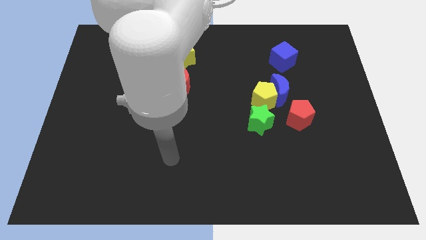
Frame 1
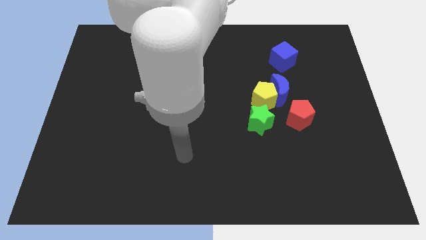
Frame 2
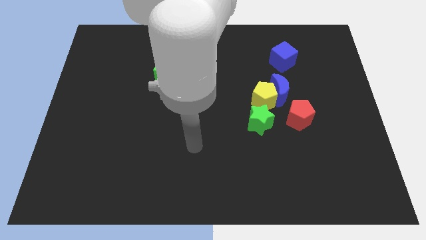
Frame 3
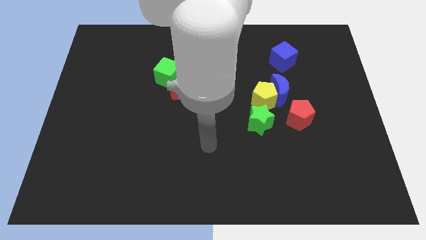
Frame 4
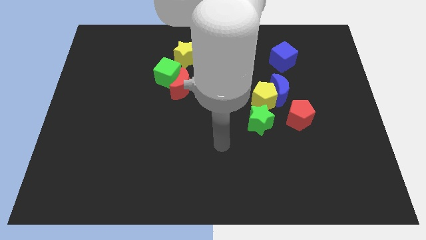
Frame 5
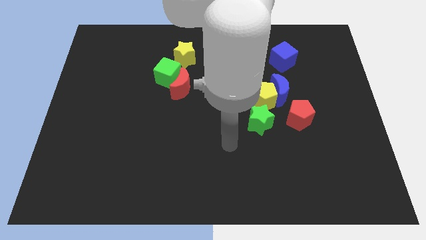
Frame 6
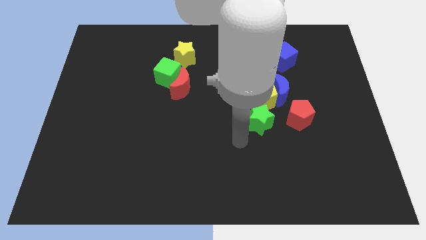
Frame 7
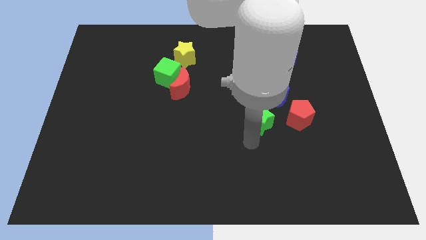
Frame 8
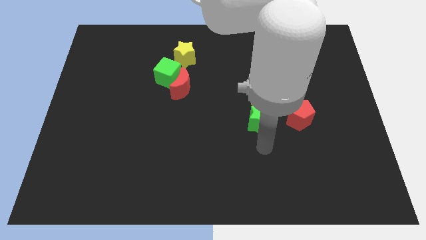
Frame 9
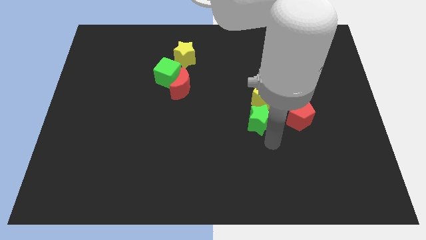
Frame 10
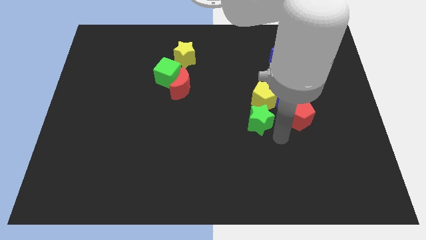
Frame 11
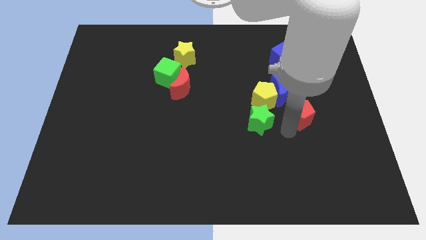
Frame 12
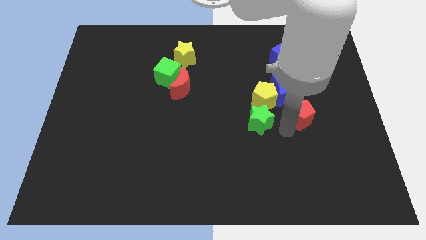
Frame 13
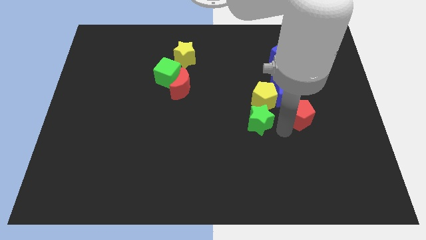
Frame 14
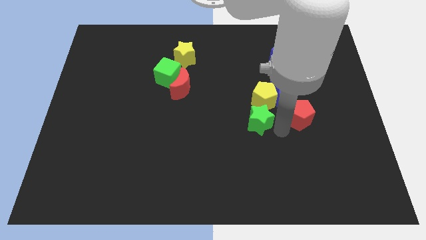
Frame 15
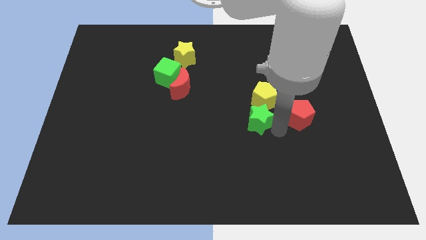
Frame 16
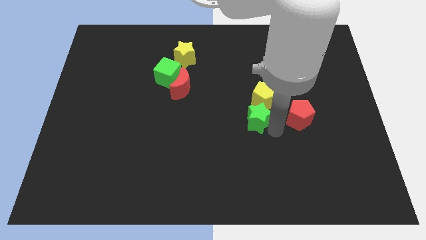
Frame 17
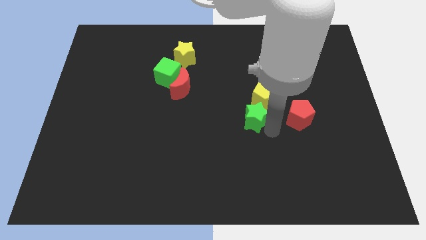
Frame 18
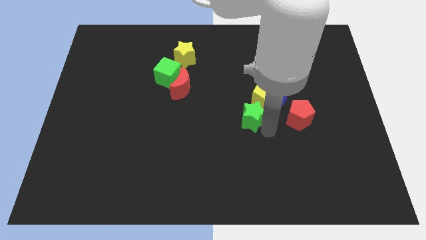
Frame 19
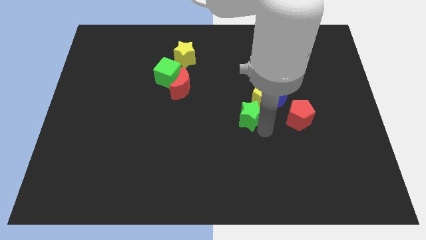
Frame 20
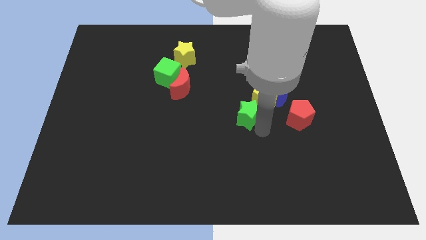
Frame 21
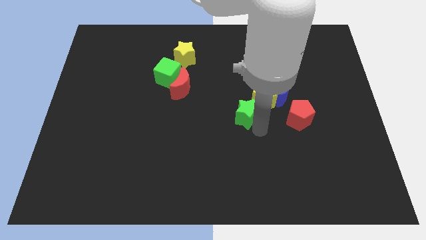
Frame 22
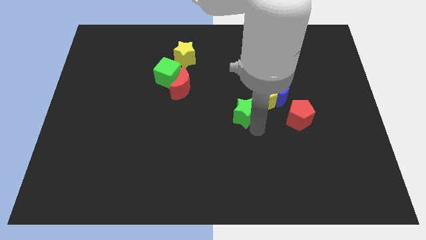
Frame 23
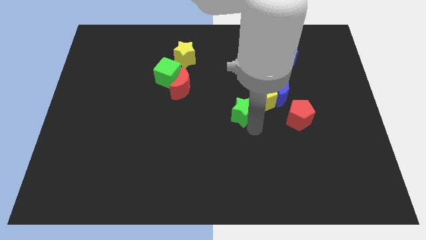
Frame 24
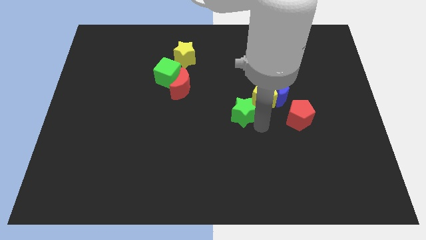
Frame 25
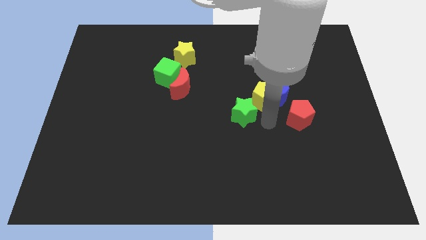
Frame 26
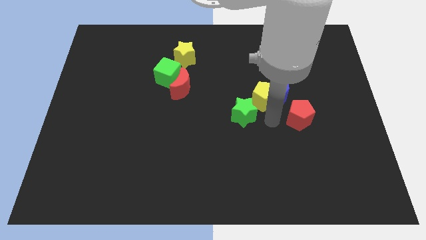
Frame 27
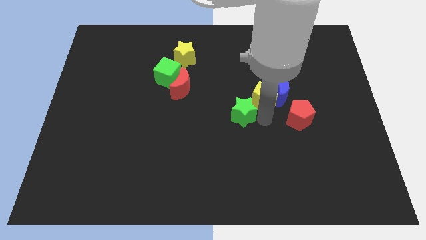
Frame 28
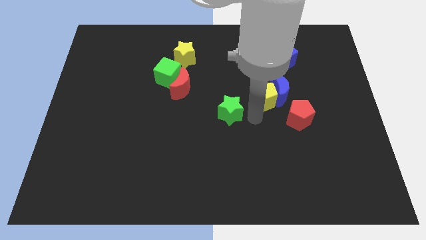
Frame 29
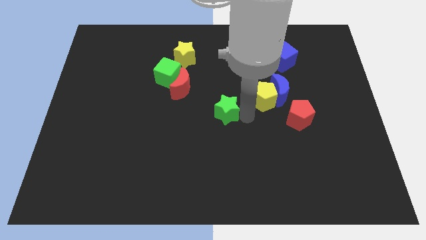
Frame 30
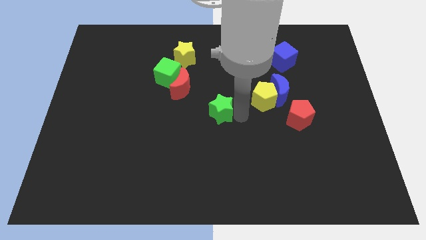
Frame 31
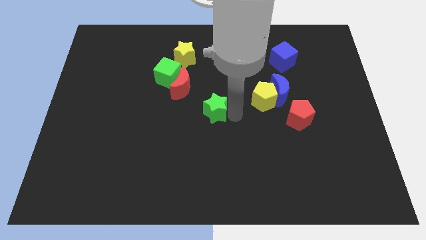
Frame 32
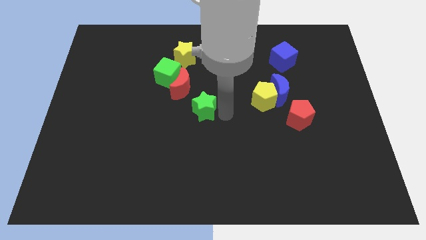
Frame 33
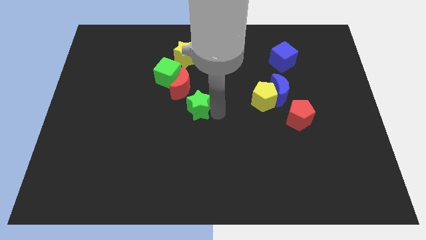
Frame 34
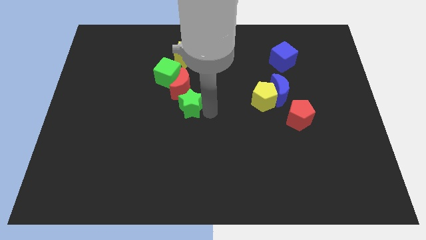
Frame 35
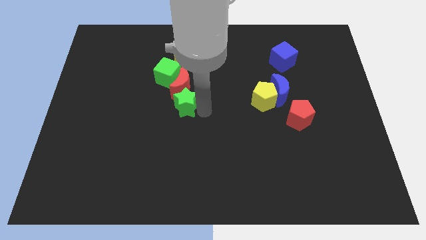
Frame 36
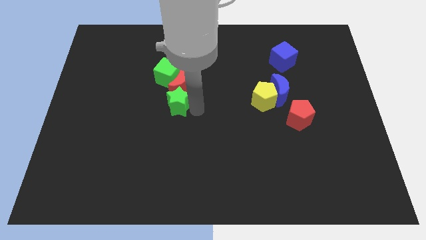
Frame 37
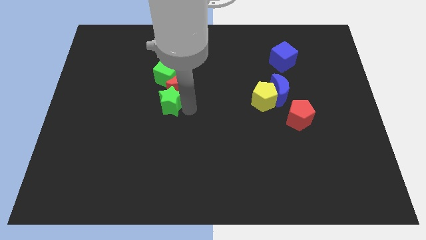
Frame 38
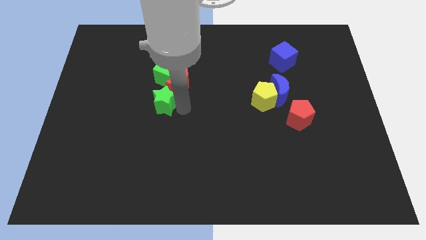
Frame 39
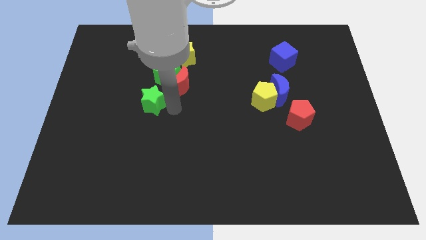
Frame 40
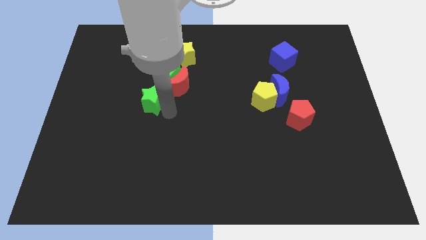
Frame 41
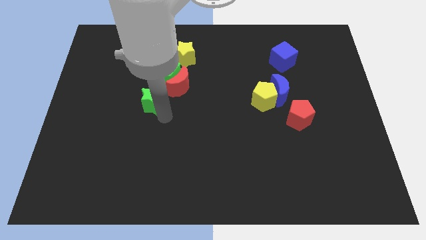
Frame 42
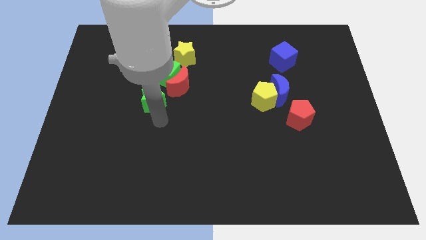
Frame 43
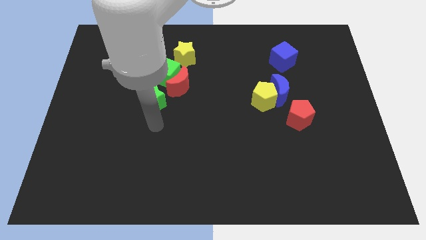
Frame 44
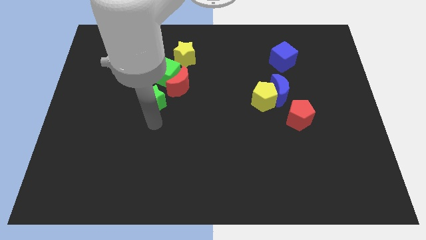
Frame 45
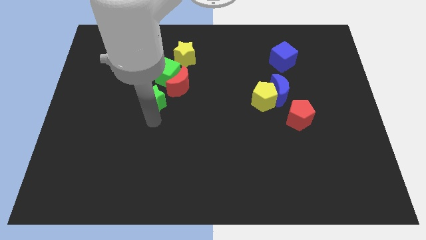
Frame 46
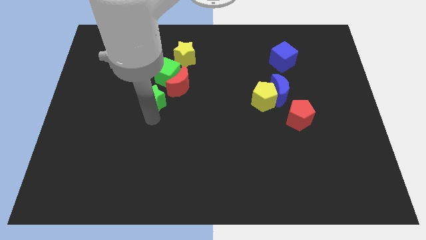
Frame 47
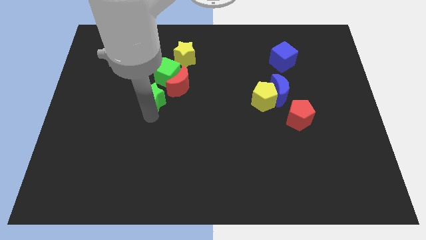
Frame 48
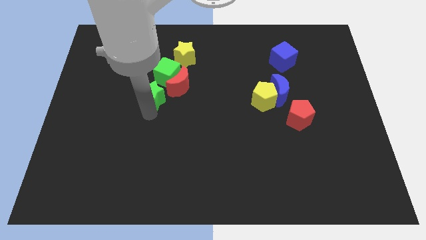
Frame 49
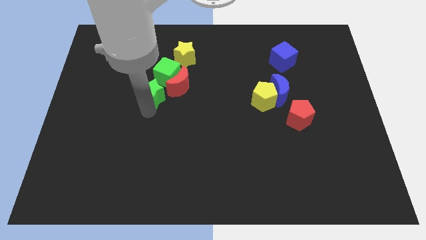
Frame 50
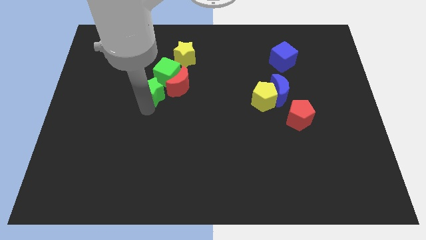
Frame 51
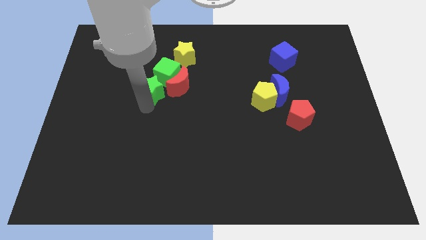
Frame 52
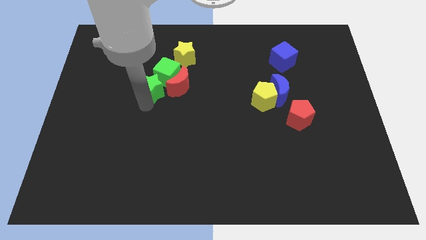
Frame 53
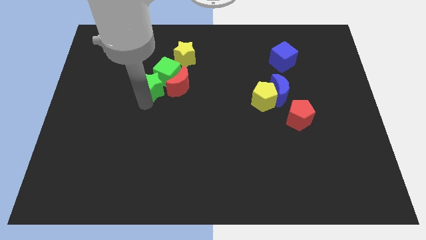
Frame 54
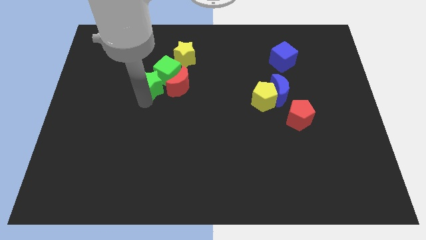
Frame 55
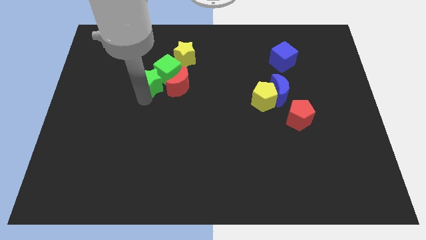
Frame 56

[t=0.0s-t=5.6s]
move the green star diagonally down and to the left of the yellow star

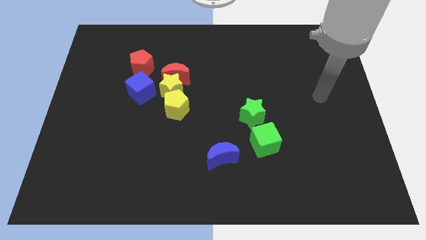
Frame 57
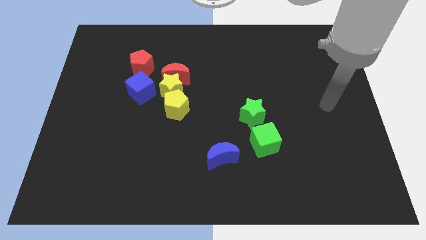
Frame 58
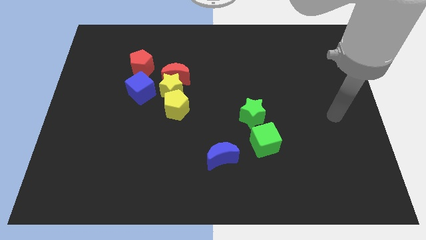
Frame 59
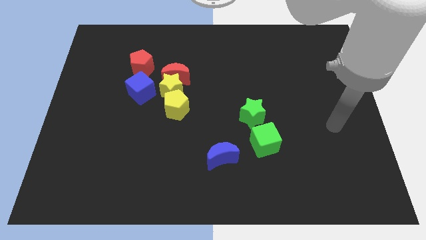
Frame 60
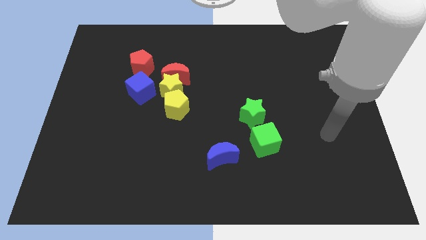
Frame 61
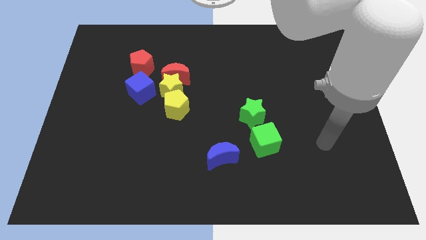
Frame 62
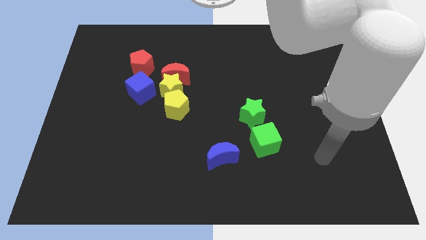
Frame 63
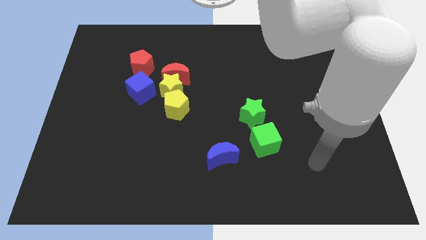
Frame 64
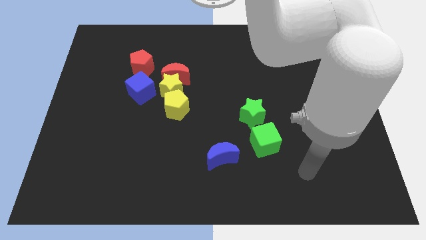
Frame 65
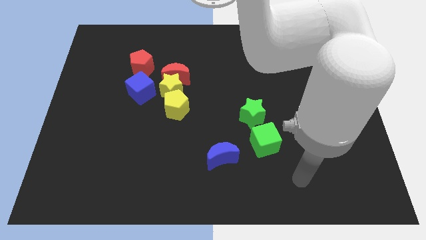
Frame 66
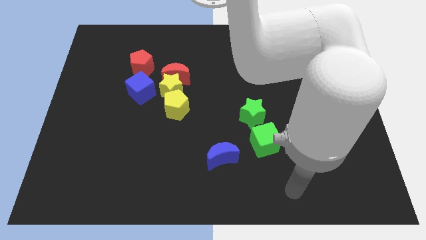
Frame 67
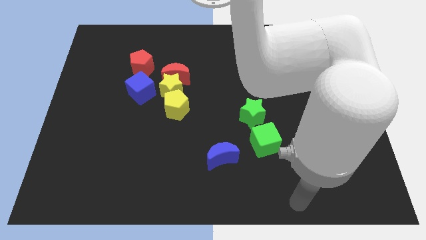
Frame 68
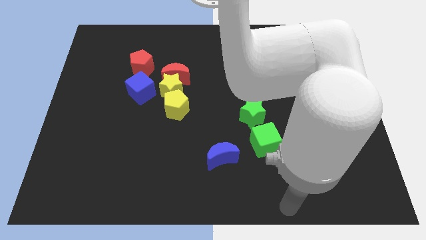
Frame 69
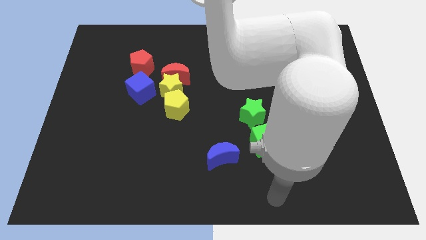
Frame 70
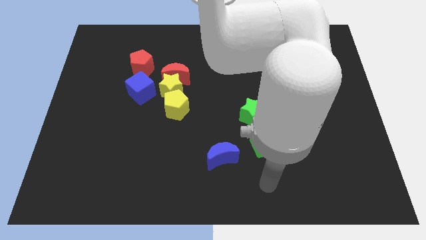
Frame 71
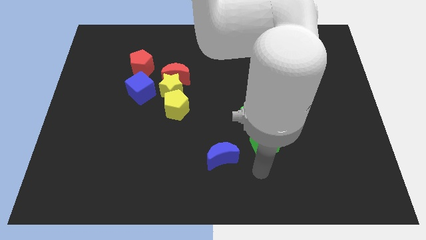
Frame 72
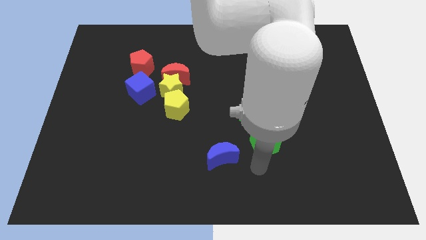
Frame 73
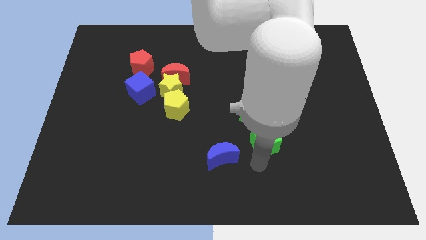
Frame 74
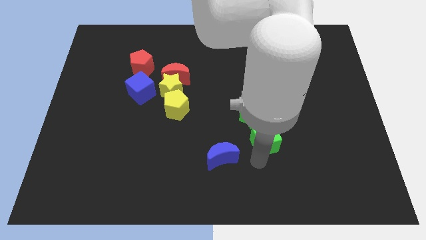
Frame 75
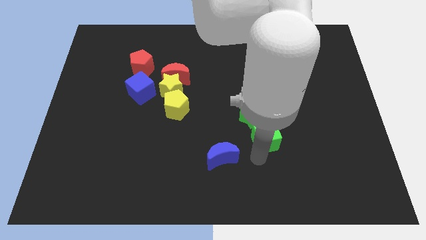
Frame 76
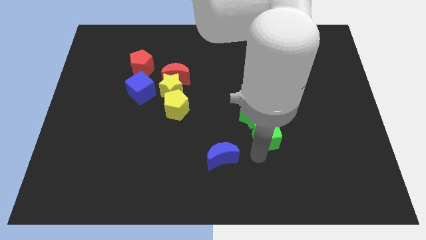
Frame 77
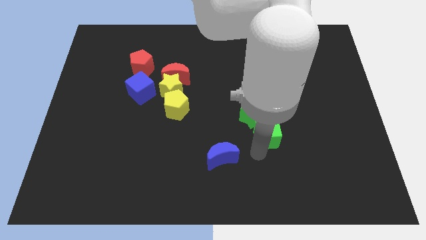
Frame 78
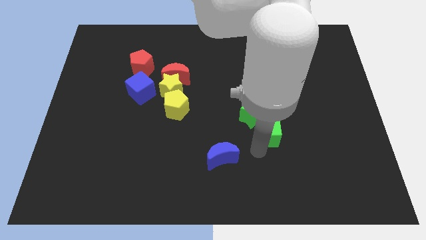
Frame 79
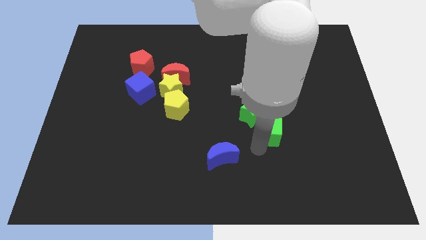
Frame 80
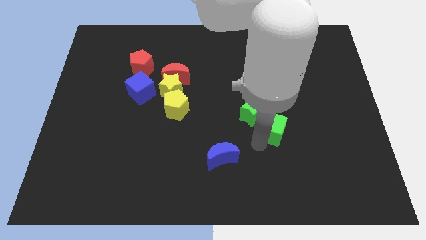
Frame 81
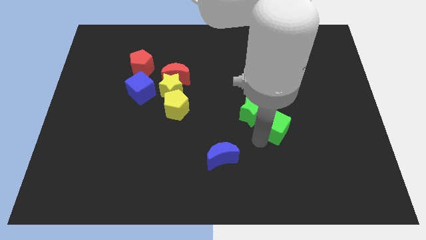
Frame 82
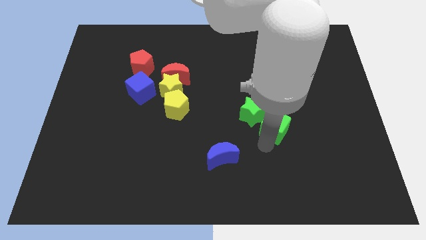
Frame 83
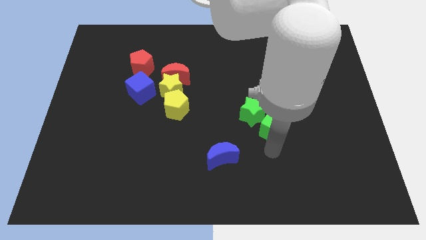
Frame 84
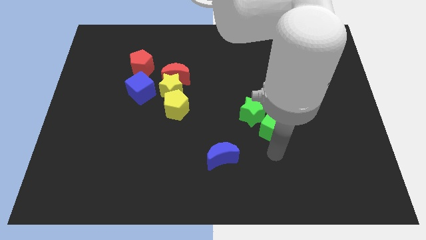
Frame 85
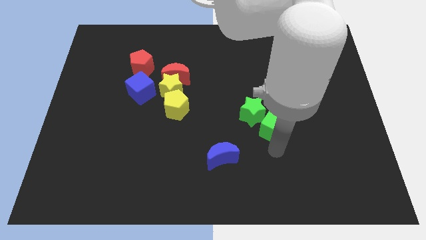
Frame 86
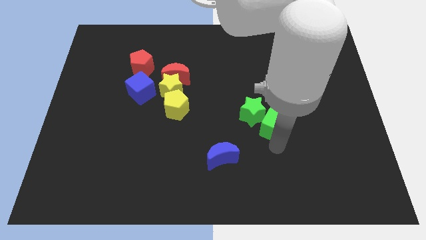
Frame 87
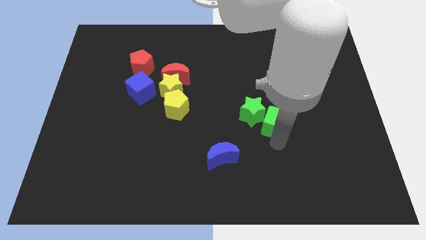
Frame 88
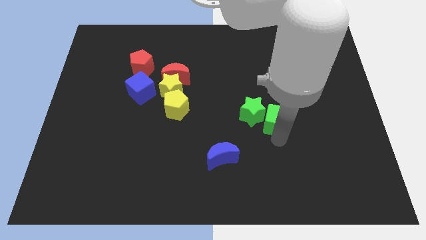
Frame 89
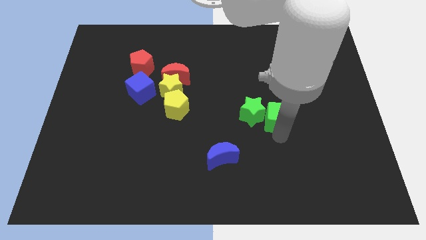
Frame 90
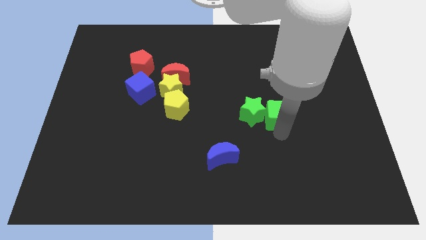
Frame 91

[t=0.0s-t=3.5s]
move the green cube to the top right of the green star
